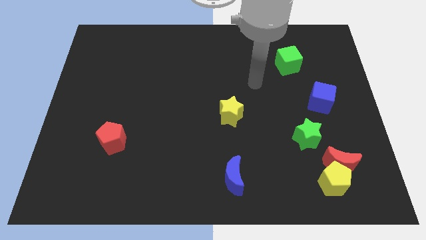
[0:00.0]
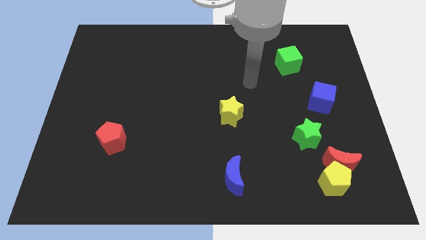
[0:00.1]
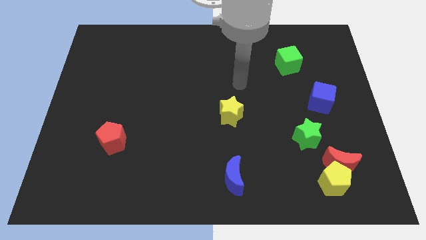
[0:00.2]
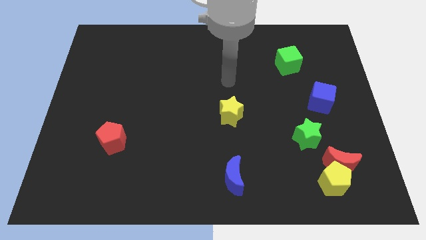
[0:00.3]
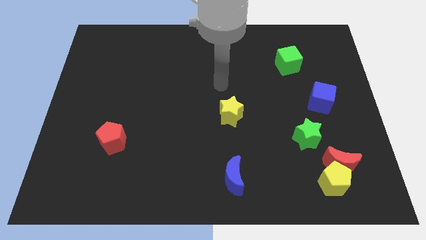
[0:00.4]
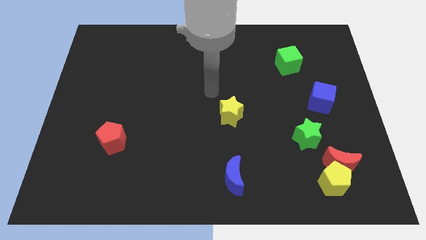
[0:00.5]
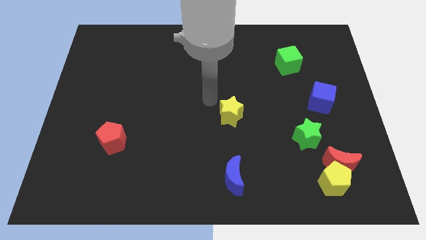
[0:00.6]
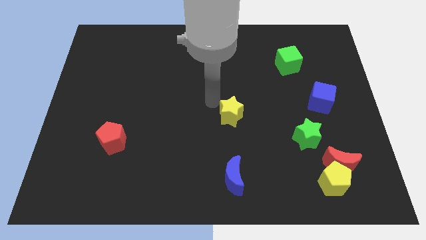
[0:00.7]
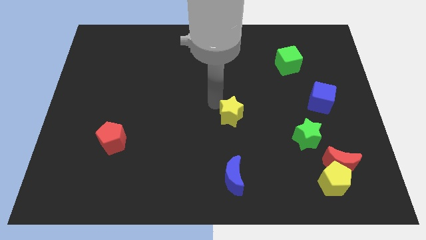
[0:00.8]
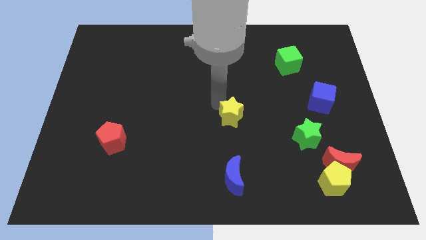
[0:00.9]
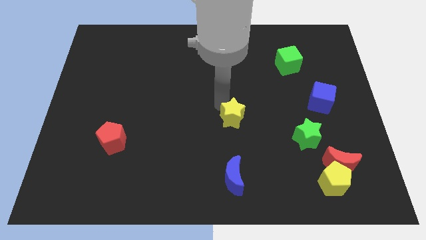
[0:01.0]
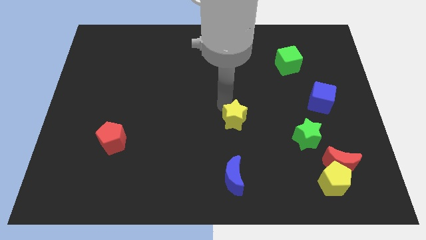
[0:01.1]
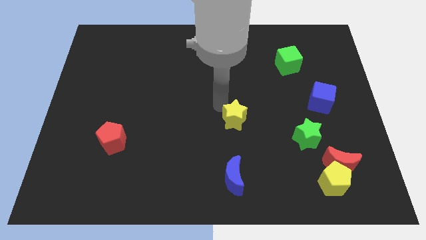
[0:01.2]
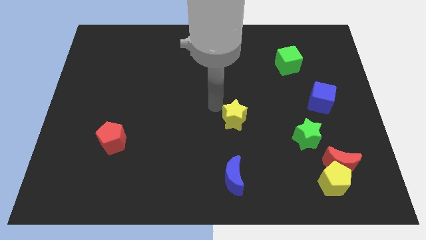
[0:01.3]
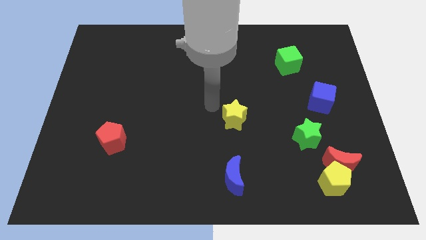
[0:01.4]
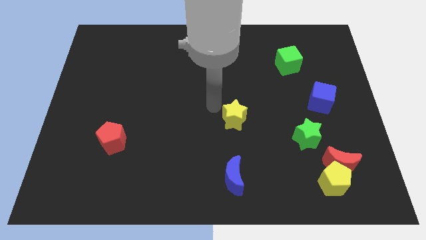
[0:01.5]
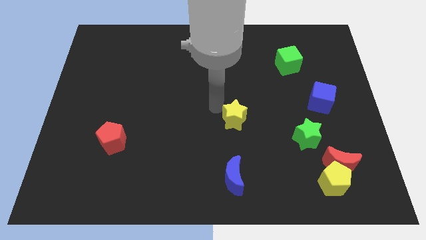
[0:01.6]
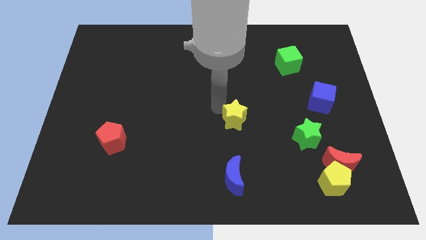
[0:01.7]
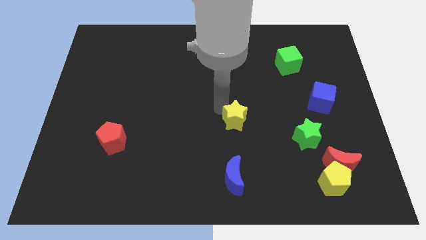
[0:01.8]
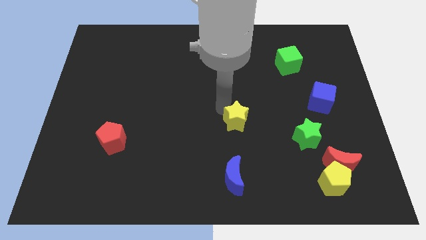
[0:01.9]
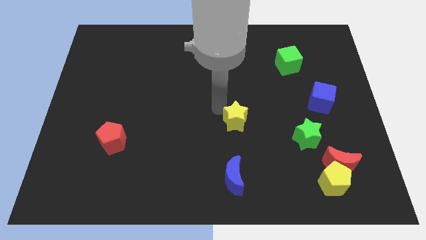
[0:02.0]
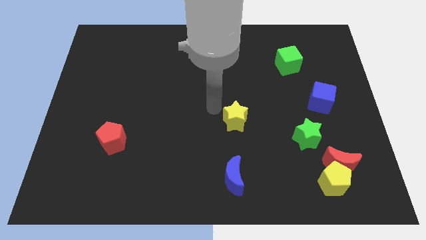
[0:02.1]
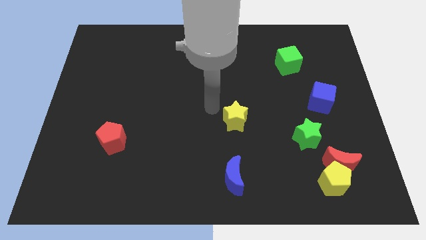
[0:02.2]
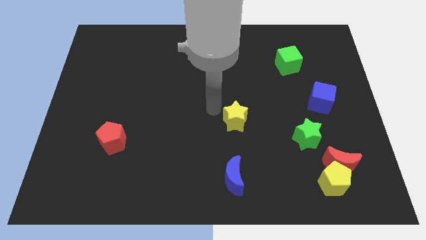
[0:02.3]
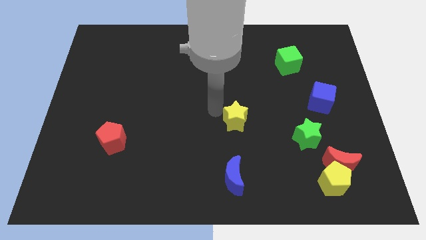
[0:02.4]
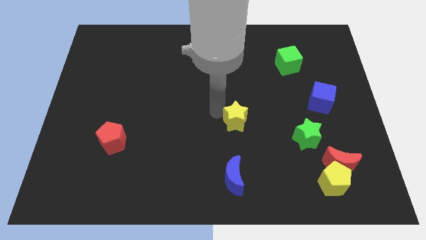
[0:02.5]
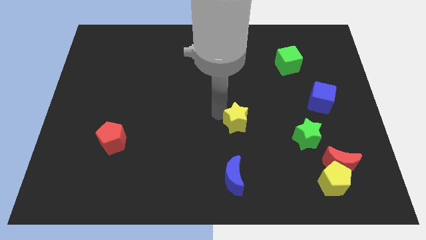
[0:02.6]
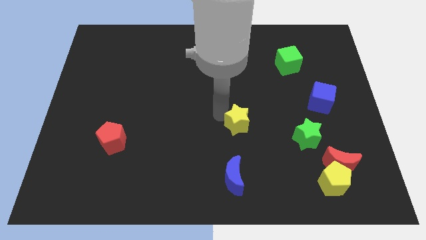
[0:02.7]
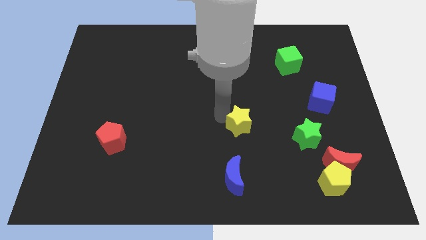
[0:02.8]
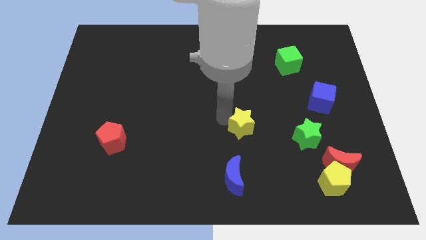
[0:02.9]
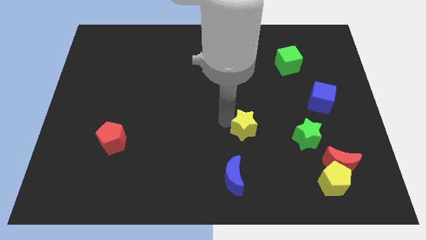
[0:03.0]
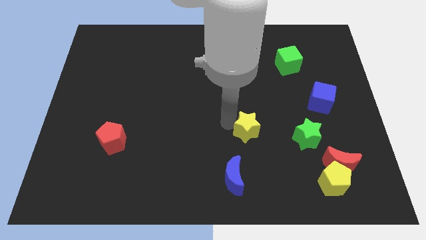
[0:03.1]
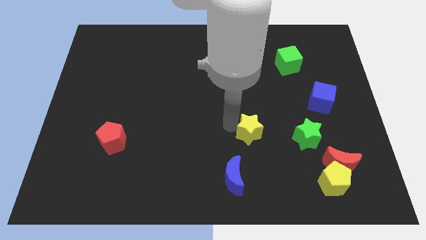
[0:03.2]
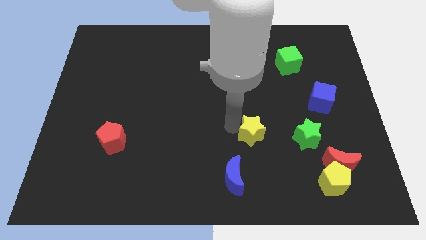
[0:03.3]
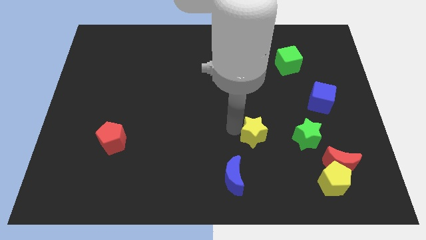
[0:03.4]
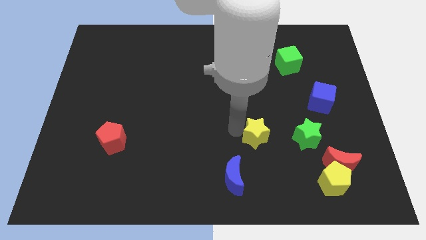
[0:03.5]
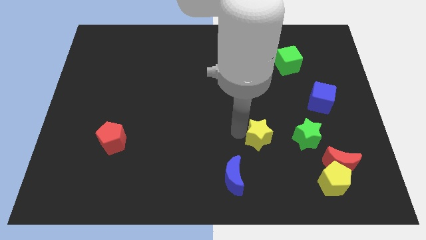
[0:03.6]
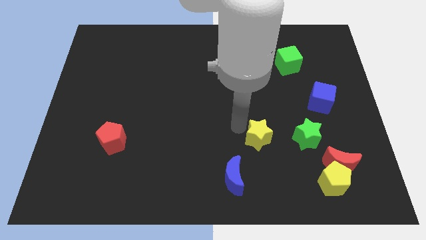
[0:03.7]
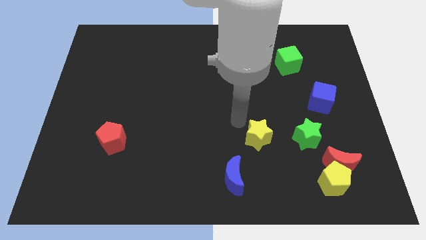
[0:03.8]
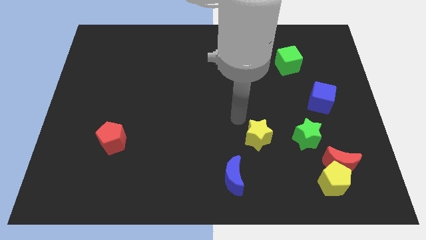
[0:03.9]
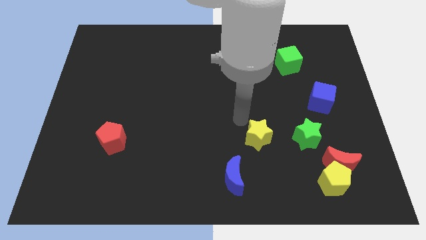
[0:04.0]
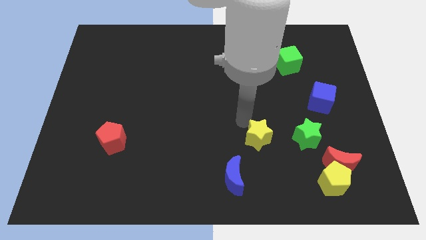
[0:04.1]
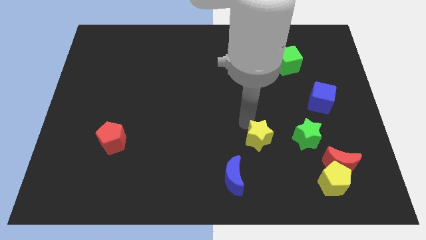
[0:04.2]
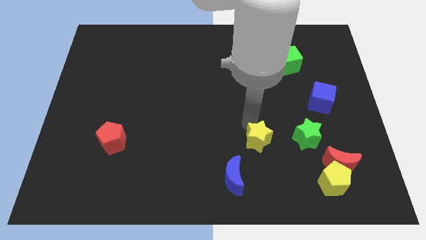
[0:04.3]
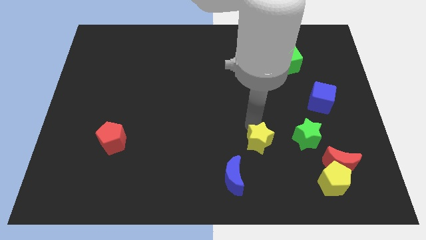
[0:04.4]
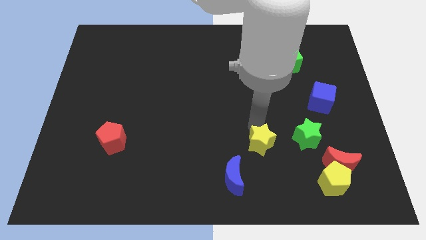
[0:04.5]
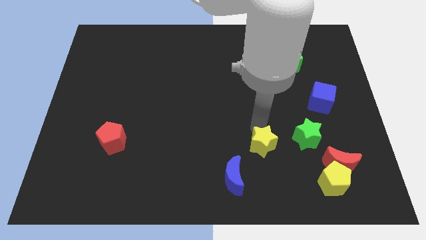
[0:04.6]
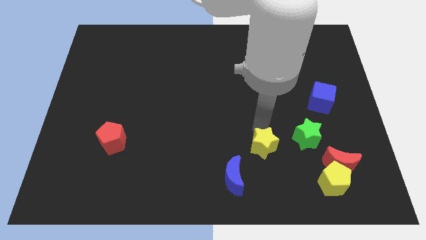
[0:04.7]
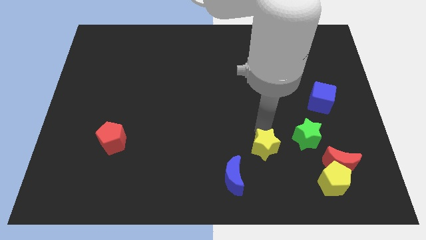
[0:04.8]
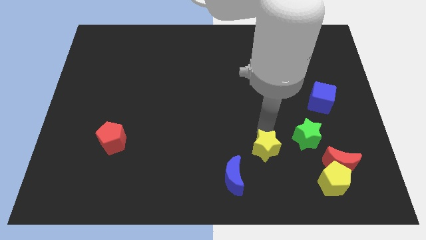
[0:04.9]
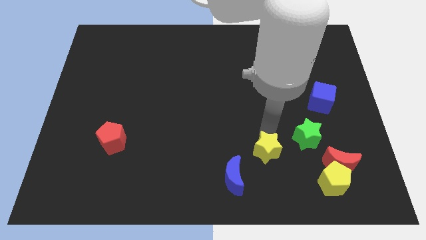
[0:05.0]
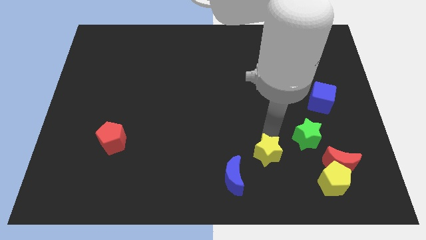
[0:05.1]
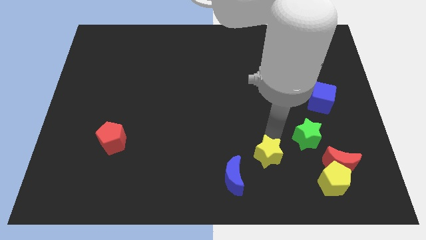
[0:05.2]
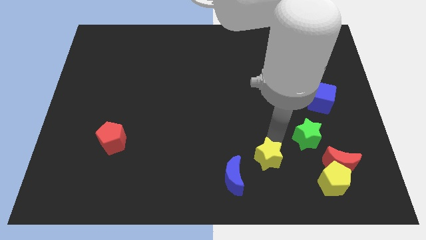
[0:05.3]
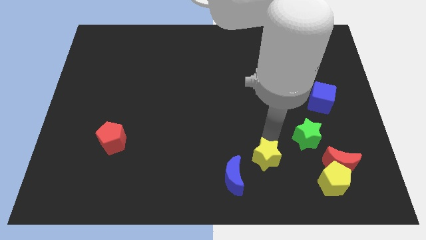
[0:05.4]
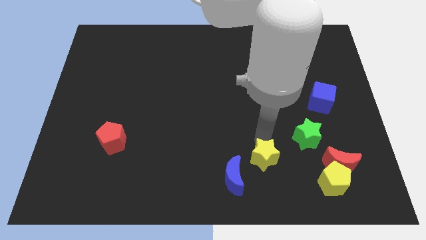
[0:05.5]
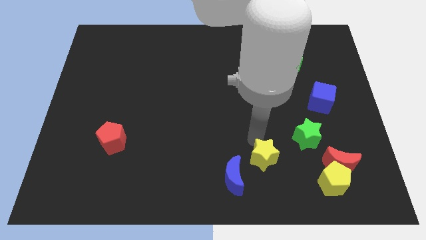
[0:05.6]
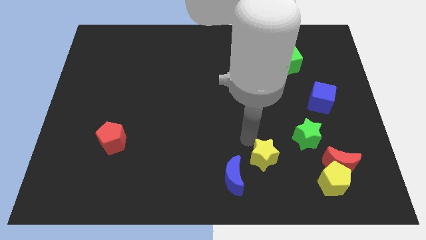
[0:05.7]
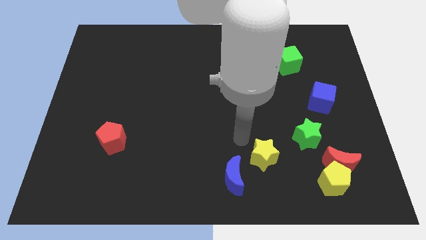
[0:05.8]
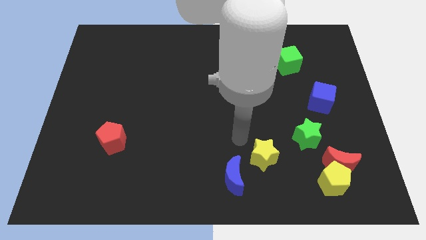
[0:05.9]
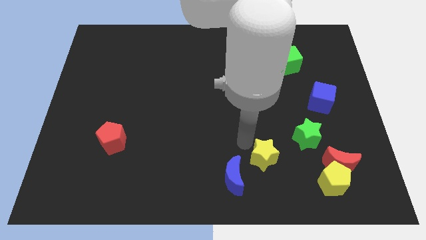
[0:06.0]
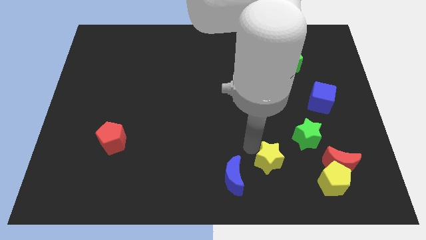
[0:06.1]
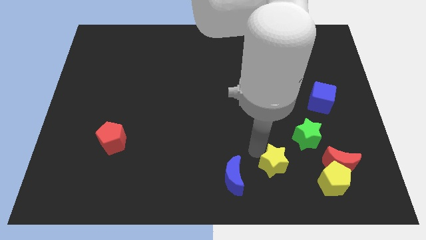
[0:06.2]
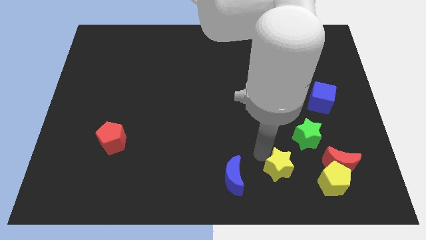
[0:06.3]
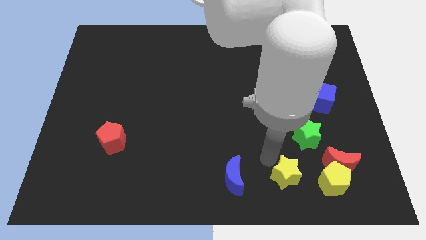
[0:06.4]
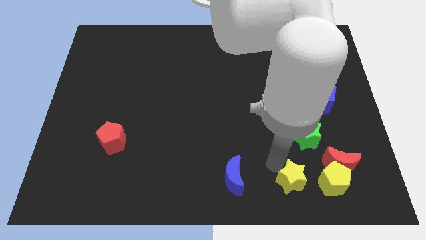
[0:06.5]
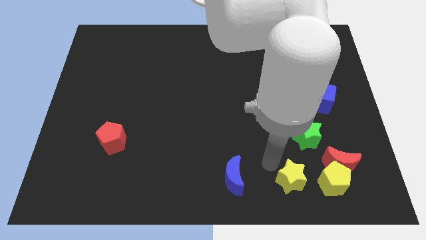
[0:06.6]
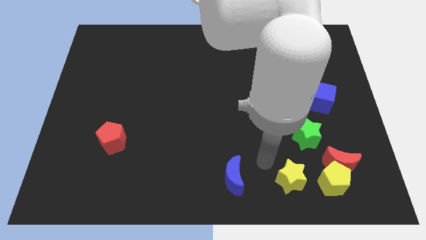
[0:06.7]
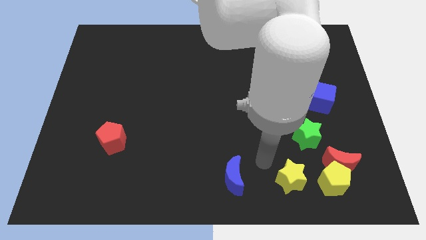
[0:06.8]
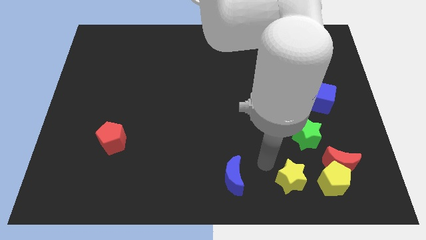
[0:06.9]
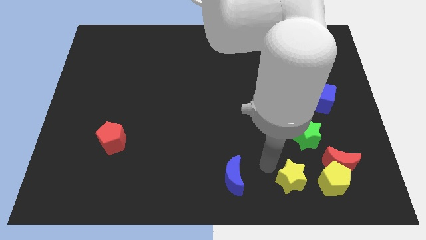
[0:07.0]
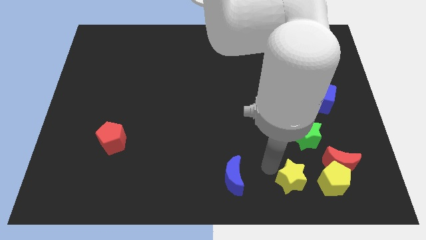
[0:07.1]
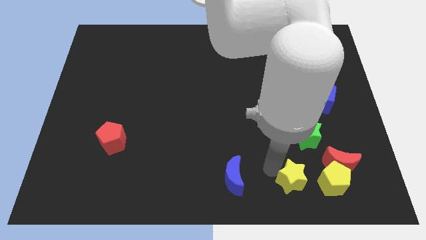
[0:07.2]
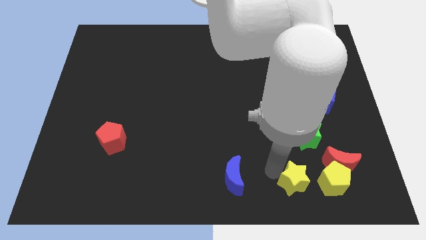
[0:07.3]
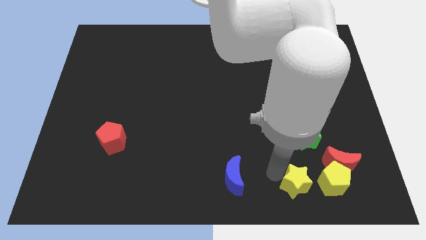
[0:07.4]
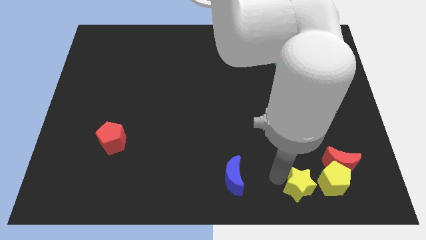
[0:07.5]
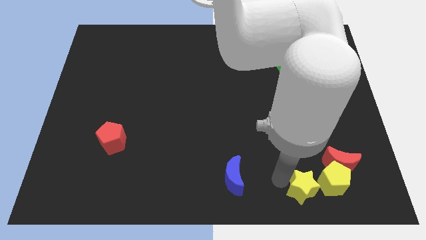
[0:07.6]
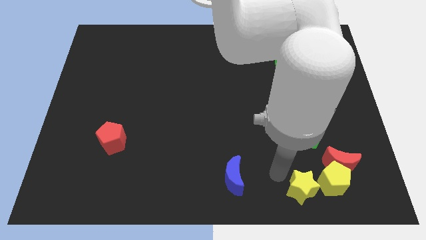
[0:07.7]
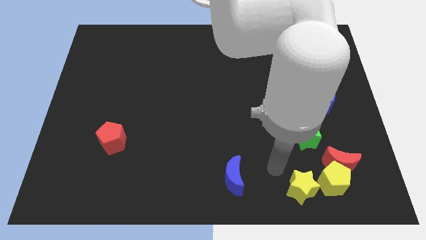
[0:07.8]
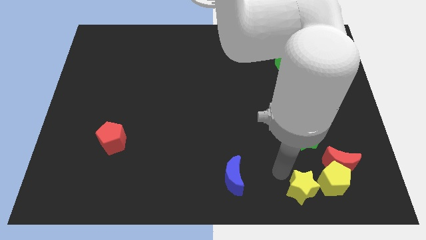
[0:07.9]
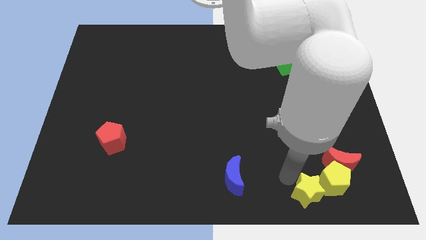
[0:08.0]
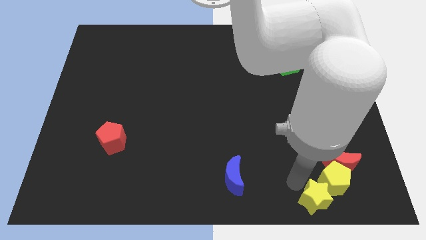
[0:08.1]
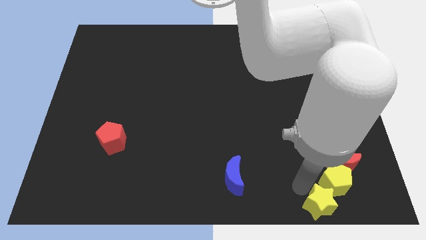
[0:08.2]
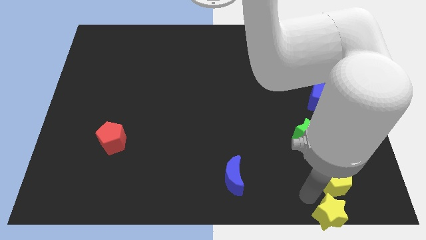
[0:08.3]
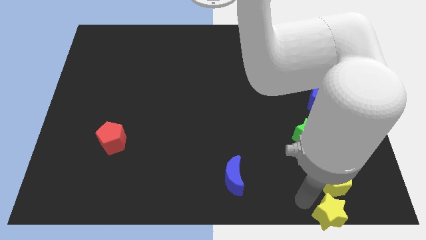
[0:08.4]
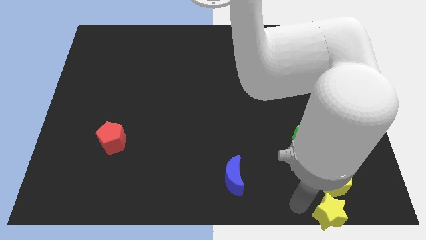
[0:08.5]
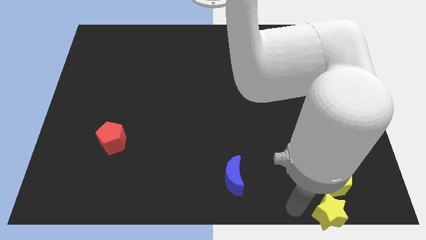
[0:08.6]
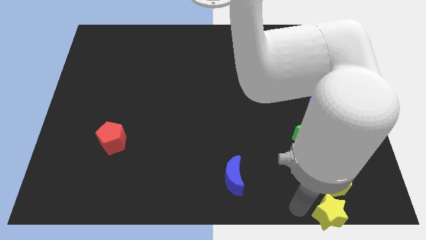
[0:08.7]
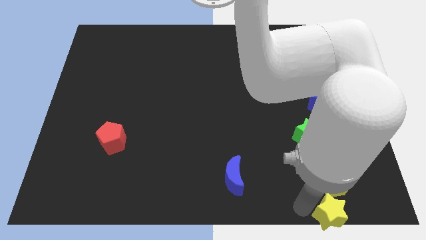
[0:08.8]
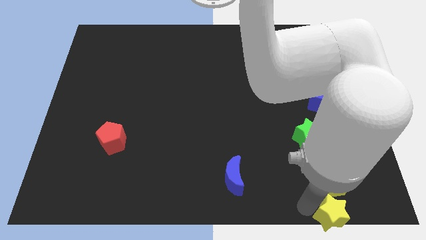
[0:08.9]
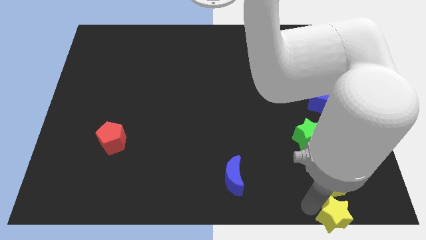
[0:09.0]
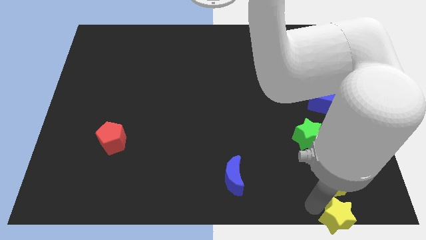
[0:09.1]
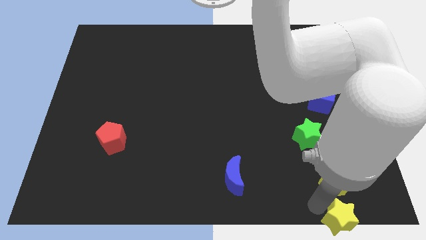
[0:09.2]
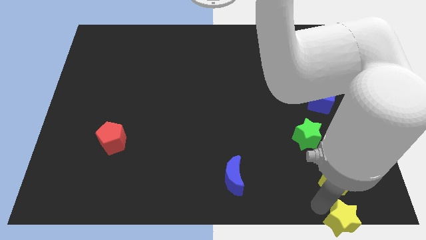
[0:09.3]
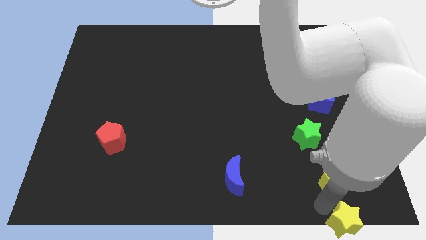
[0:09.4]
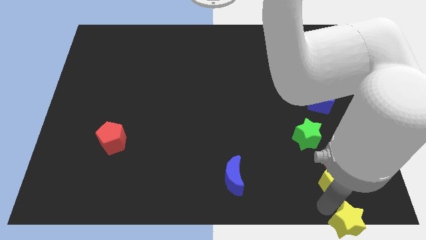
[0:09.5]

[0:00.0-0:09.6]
move the yellow star to the bottom right
